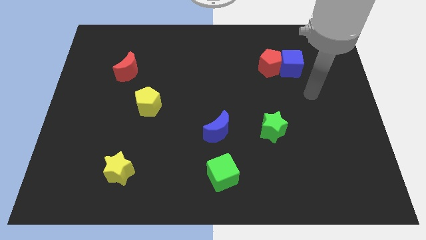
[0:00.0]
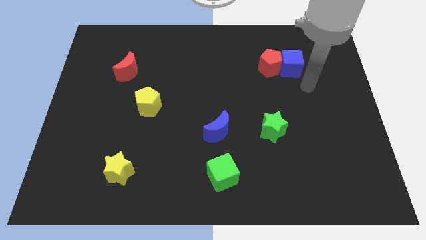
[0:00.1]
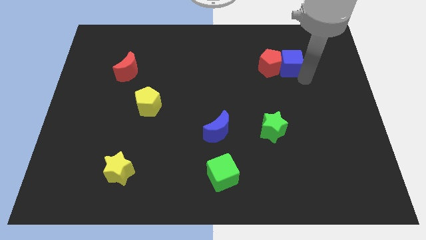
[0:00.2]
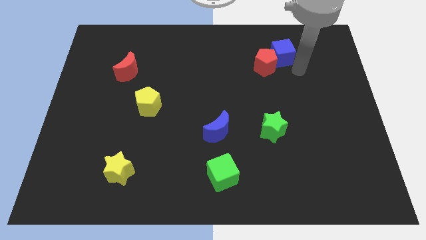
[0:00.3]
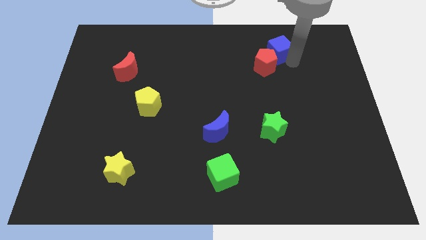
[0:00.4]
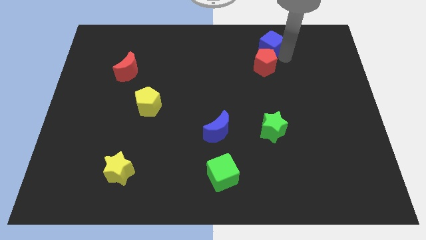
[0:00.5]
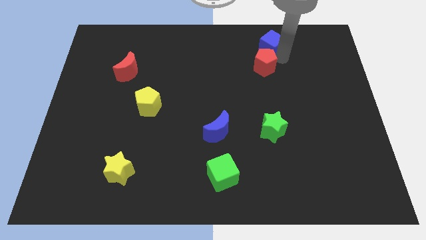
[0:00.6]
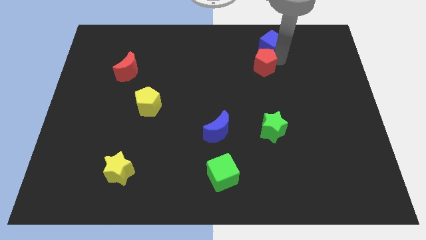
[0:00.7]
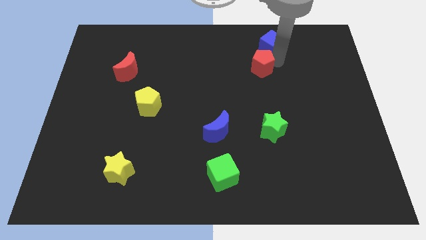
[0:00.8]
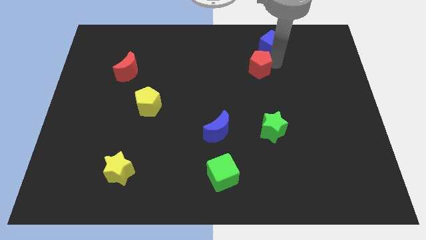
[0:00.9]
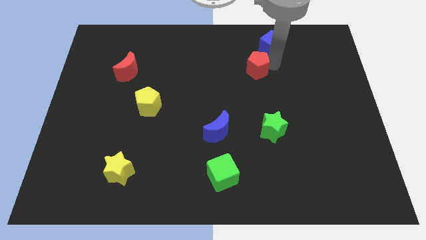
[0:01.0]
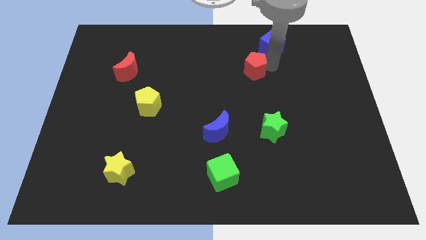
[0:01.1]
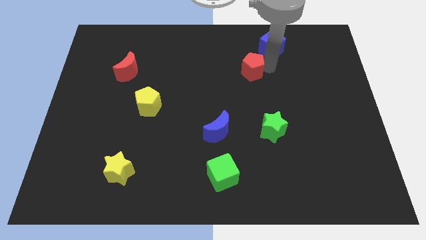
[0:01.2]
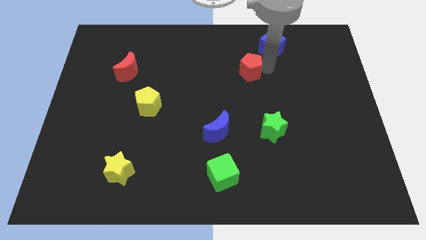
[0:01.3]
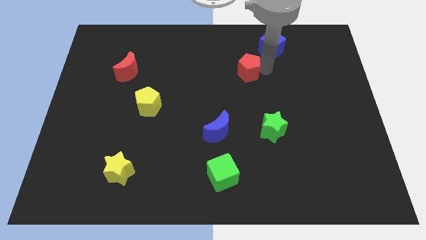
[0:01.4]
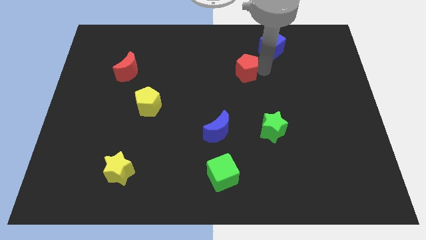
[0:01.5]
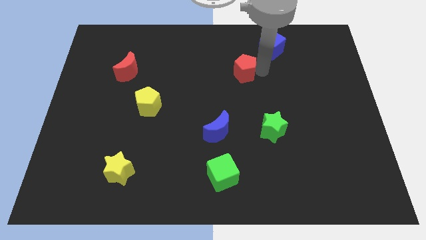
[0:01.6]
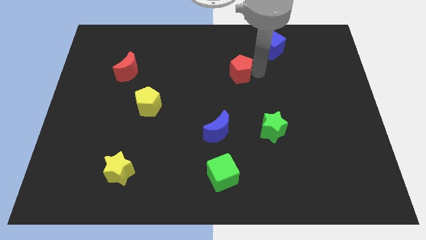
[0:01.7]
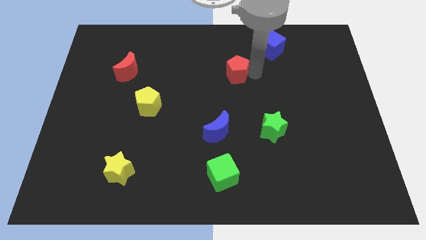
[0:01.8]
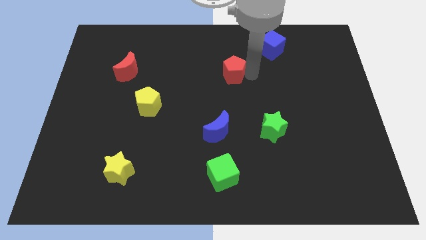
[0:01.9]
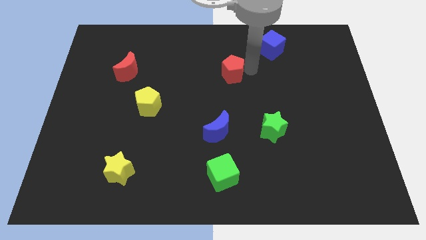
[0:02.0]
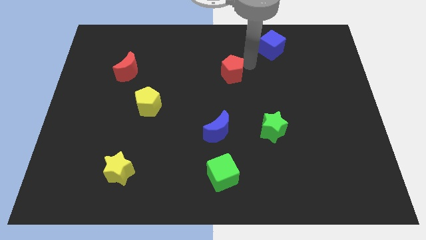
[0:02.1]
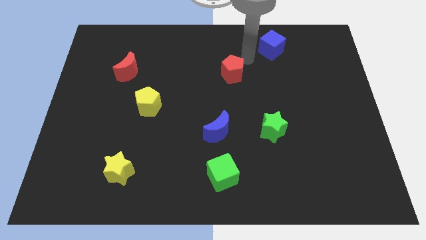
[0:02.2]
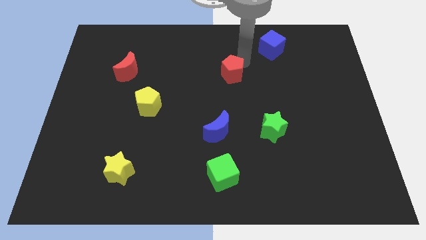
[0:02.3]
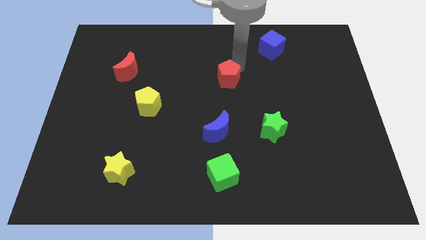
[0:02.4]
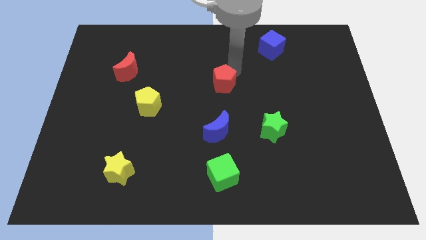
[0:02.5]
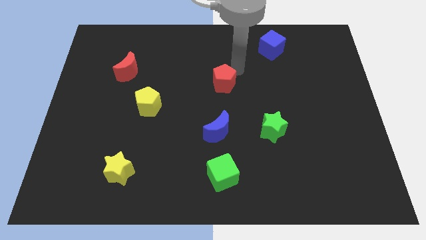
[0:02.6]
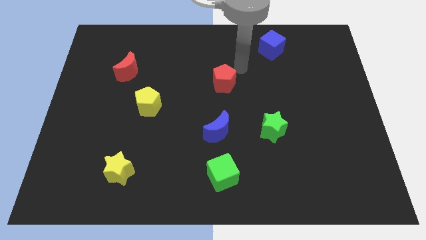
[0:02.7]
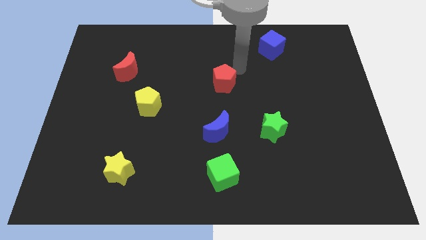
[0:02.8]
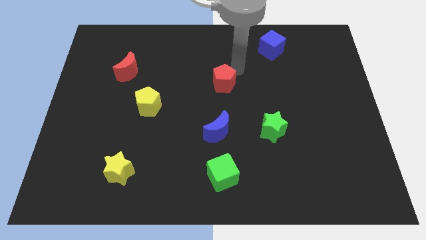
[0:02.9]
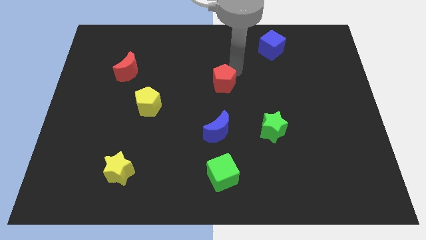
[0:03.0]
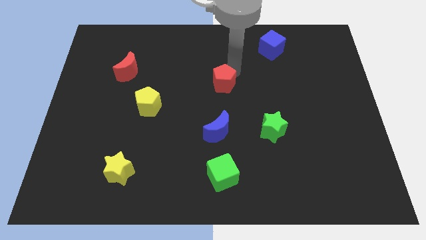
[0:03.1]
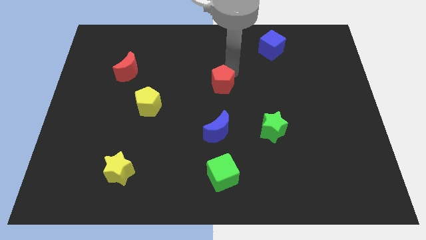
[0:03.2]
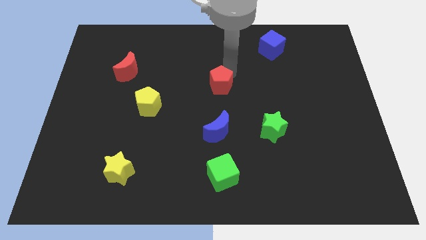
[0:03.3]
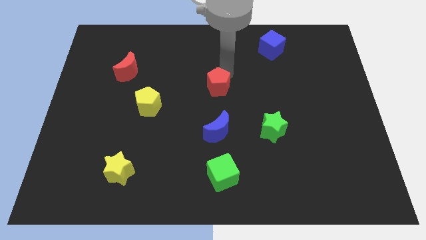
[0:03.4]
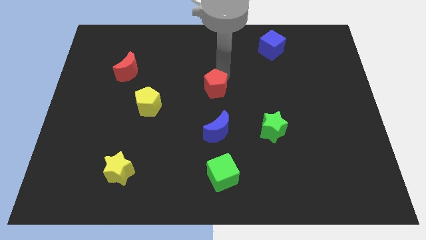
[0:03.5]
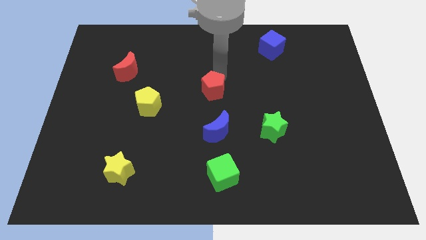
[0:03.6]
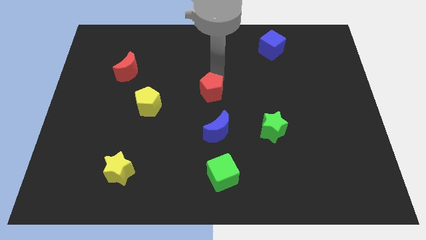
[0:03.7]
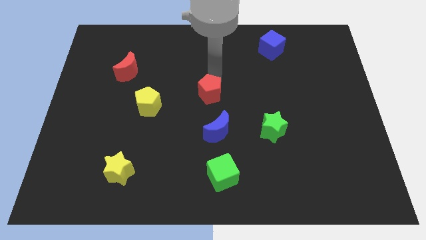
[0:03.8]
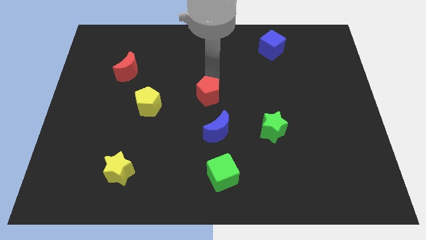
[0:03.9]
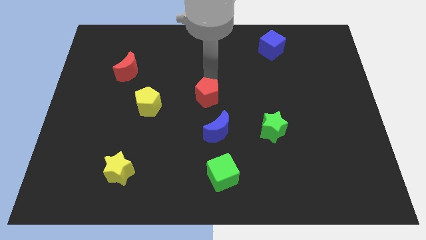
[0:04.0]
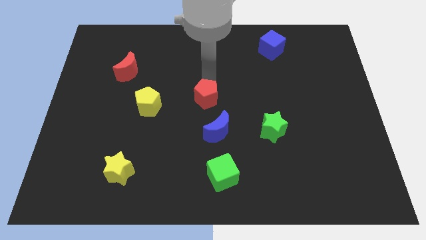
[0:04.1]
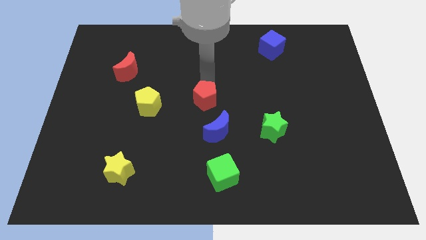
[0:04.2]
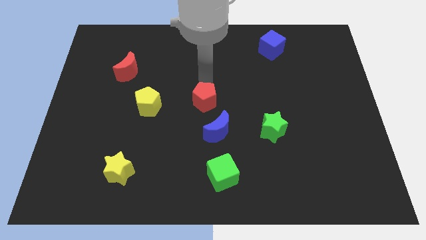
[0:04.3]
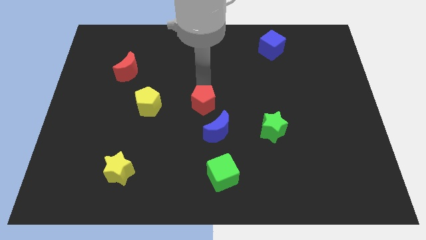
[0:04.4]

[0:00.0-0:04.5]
slide the red pentagon diagonally downwards and to the left

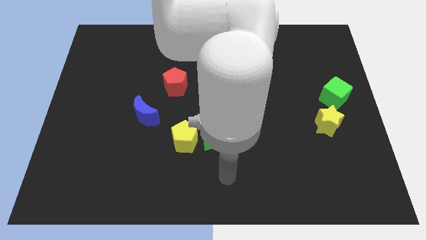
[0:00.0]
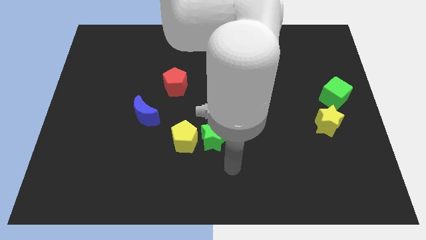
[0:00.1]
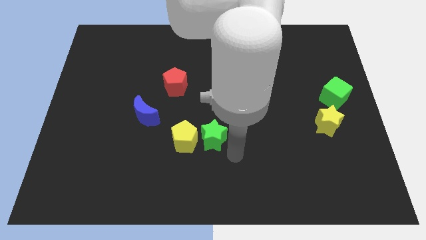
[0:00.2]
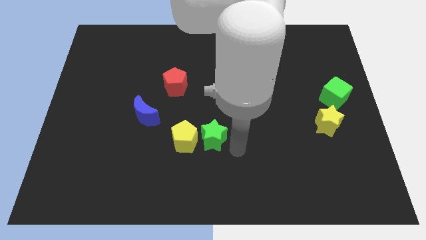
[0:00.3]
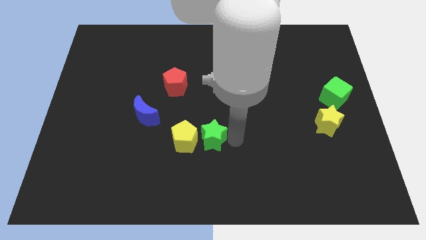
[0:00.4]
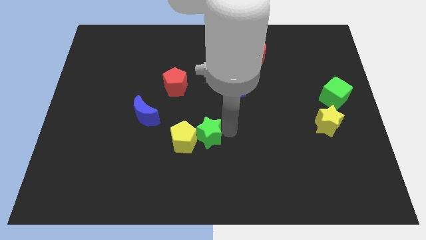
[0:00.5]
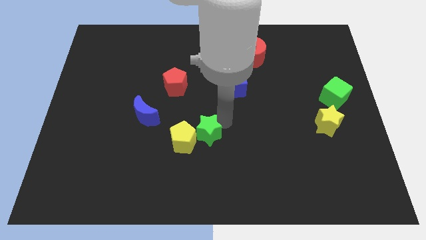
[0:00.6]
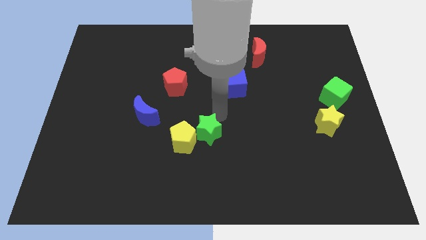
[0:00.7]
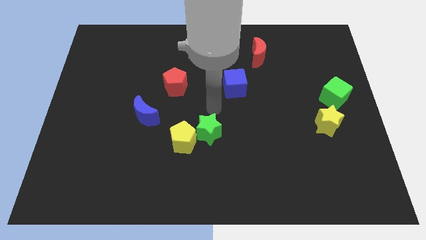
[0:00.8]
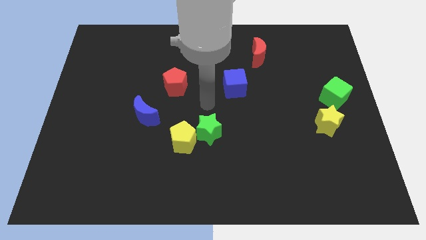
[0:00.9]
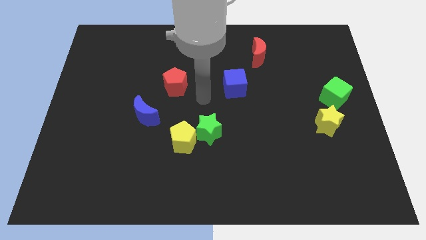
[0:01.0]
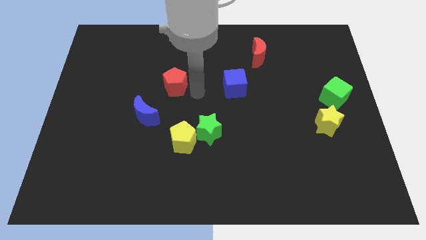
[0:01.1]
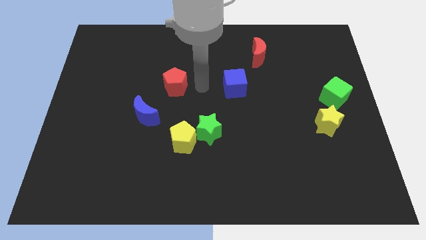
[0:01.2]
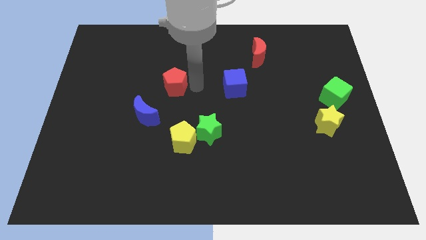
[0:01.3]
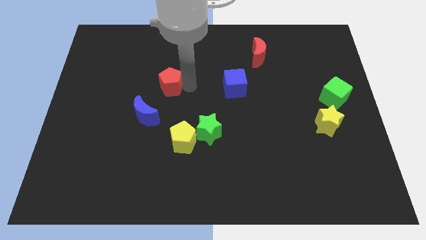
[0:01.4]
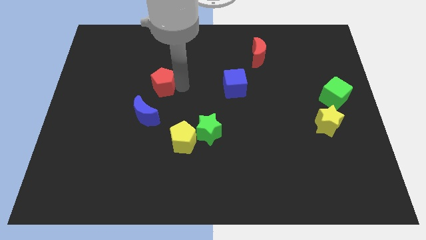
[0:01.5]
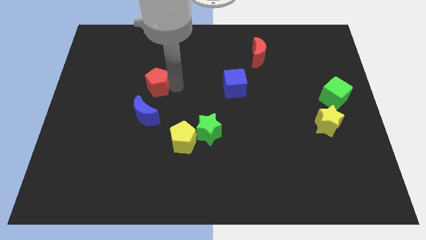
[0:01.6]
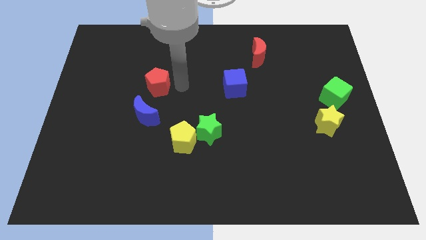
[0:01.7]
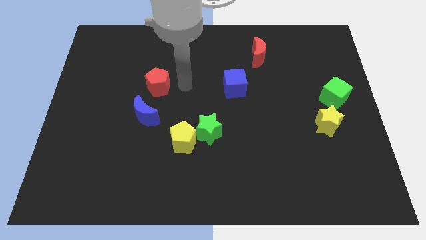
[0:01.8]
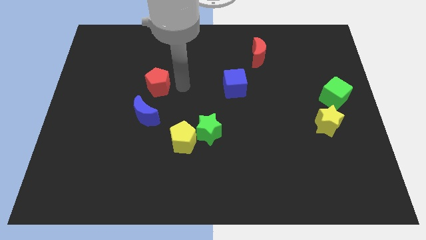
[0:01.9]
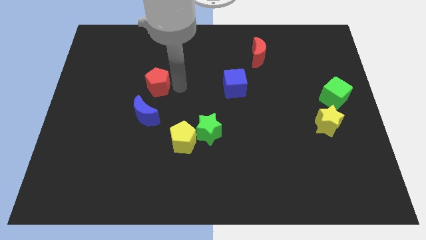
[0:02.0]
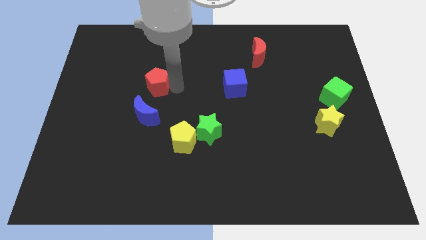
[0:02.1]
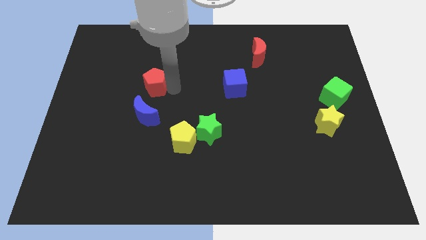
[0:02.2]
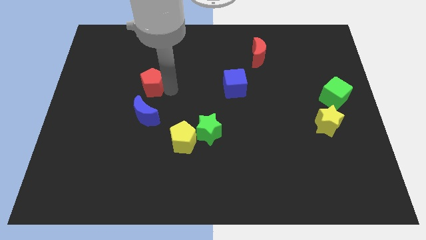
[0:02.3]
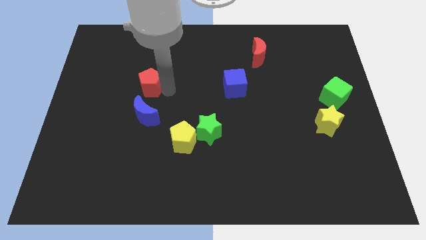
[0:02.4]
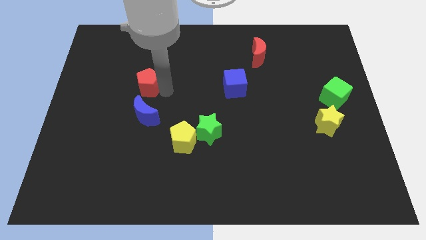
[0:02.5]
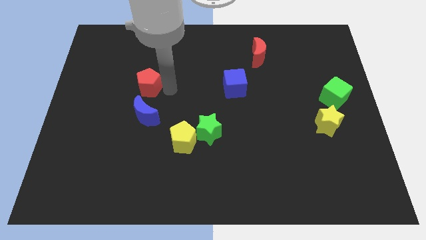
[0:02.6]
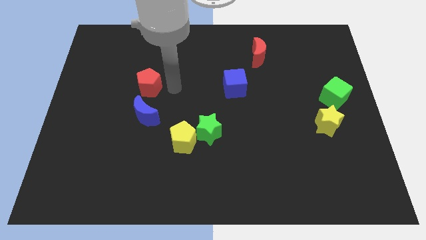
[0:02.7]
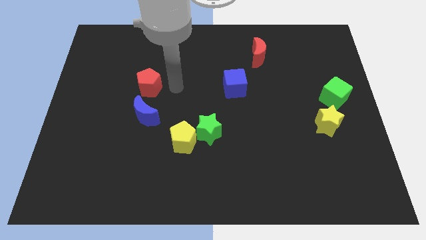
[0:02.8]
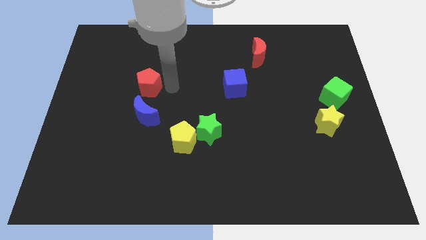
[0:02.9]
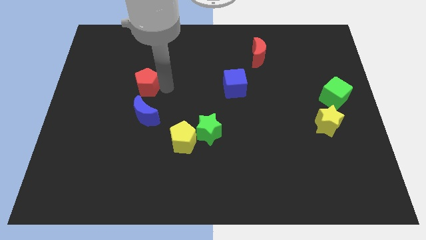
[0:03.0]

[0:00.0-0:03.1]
move the red pentagon left a little bit

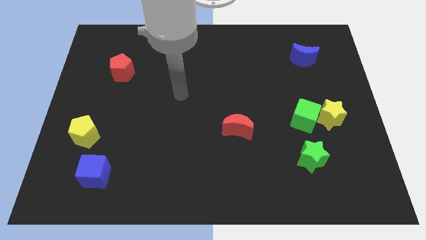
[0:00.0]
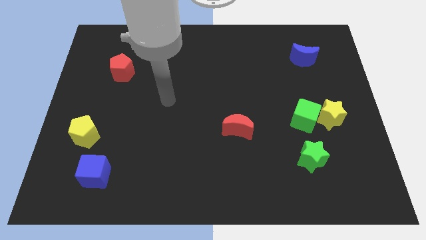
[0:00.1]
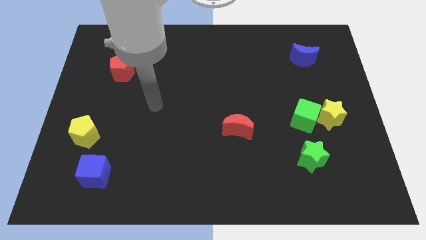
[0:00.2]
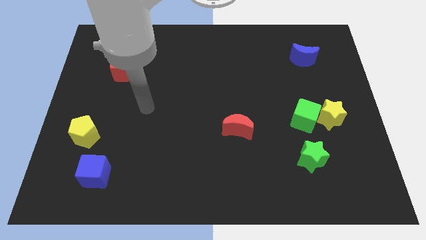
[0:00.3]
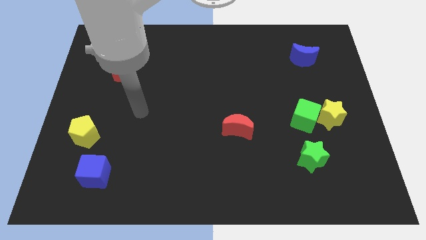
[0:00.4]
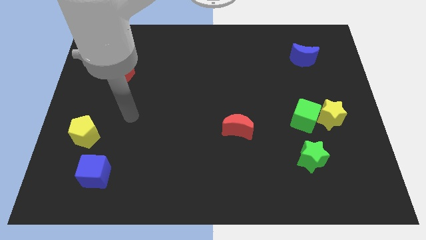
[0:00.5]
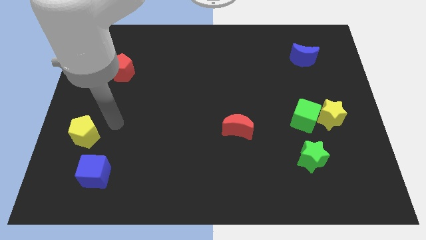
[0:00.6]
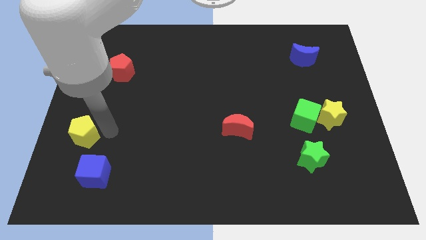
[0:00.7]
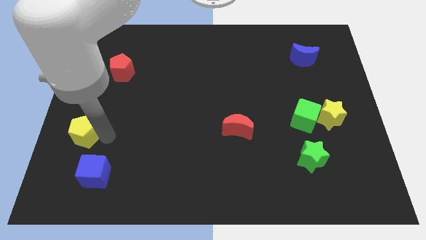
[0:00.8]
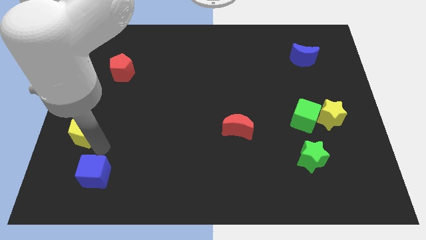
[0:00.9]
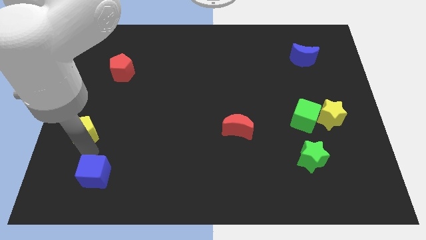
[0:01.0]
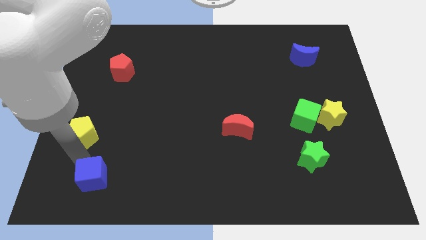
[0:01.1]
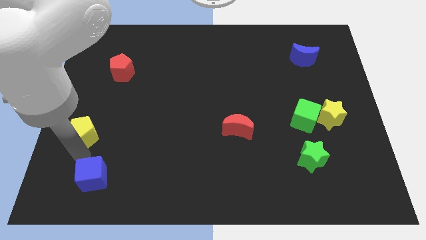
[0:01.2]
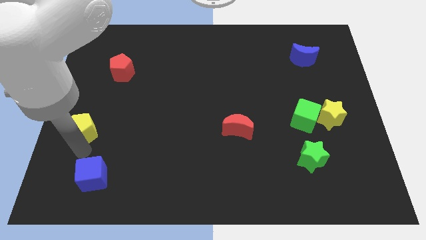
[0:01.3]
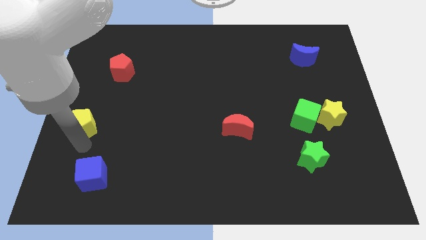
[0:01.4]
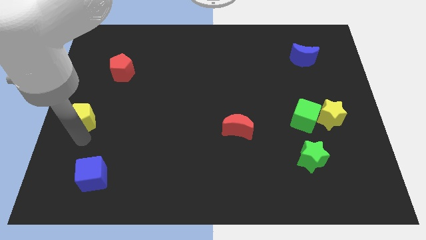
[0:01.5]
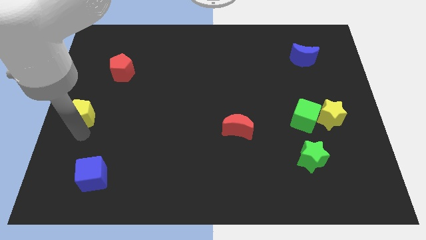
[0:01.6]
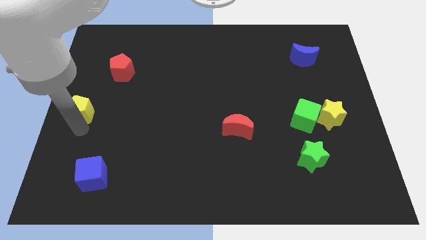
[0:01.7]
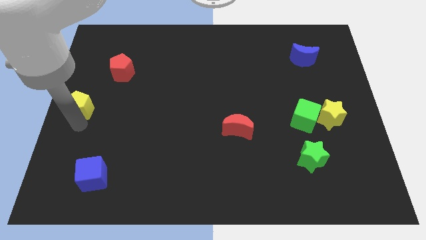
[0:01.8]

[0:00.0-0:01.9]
push the yellow pentagon upwards a little bit
